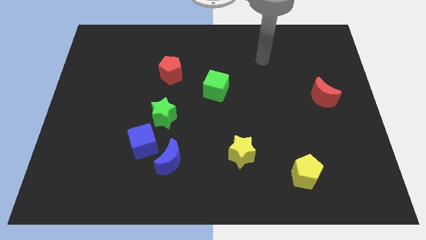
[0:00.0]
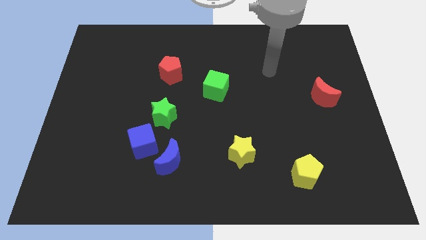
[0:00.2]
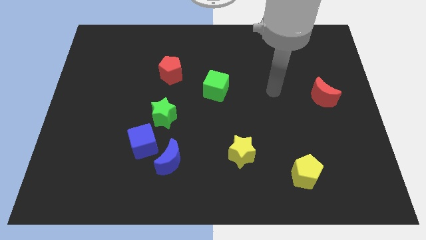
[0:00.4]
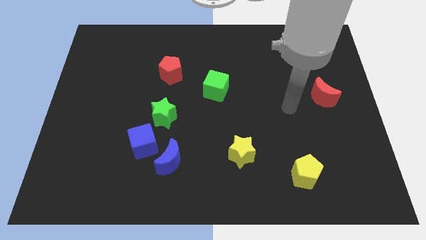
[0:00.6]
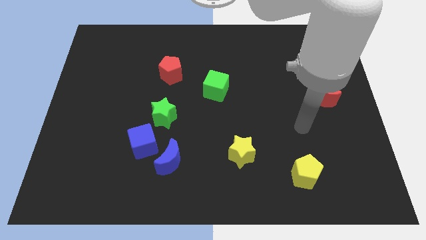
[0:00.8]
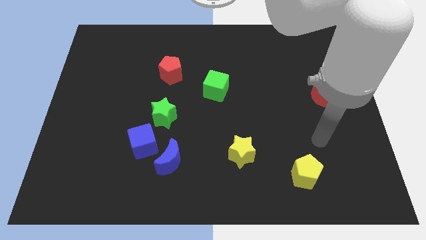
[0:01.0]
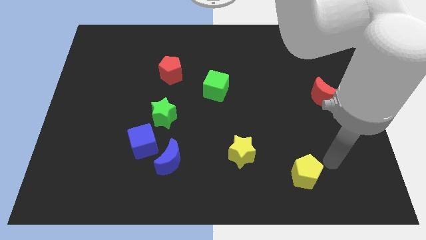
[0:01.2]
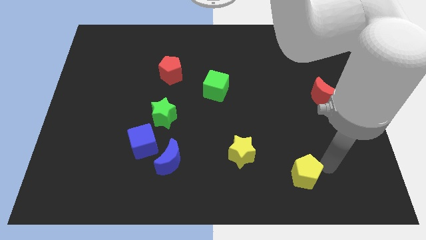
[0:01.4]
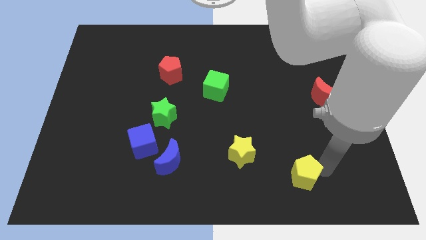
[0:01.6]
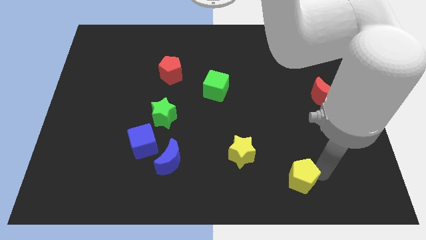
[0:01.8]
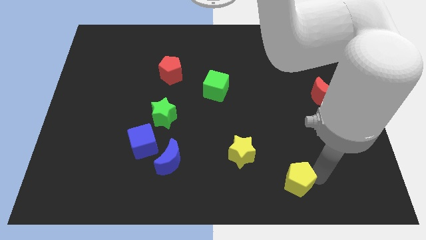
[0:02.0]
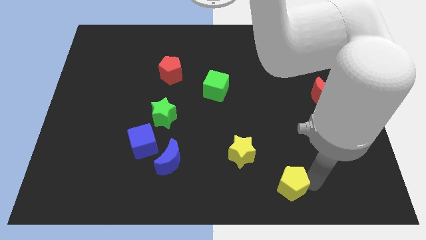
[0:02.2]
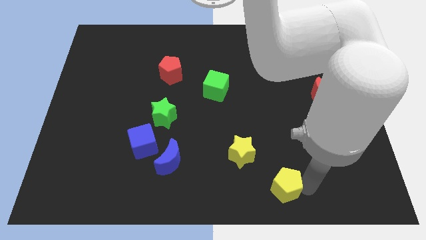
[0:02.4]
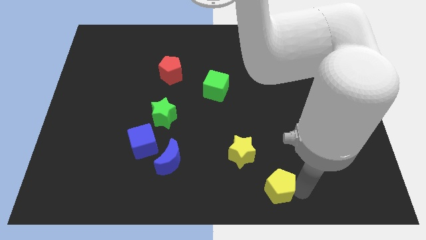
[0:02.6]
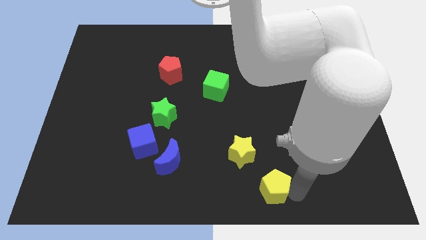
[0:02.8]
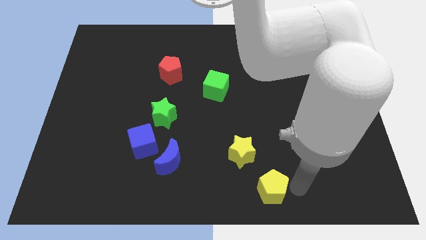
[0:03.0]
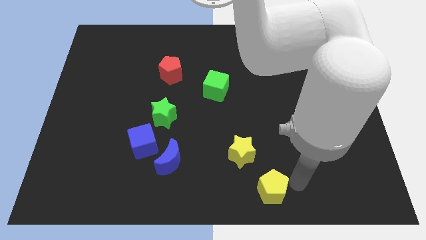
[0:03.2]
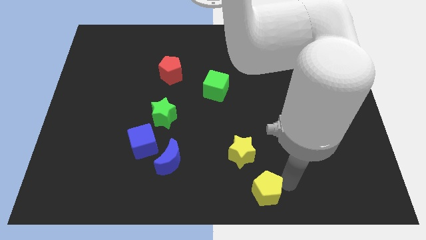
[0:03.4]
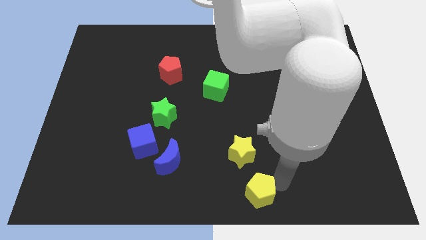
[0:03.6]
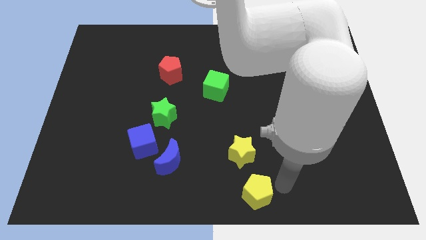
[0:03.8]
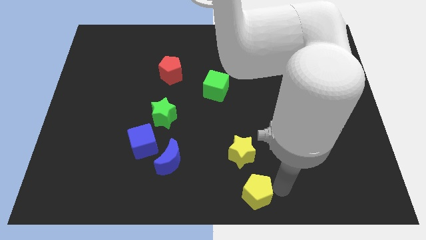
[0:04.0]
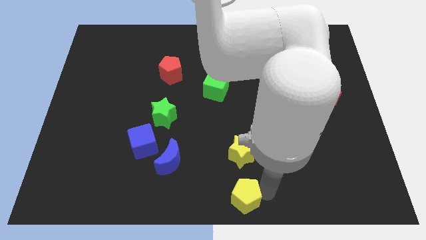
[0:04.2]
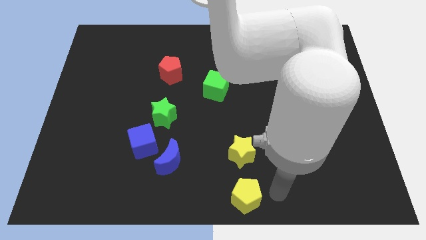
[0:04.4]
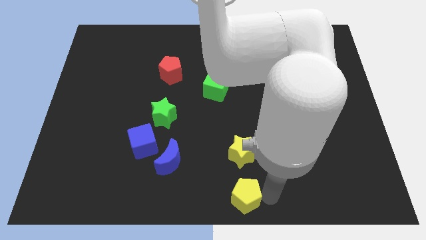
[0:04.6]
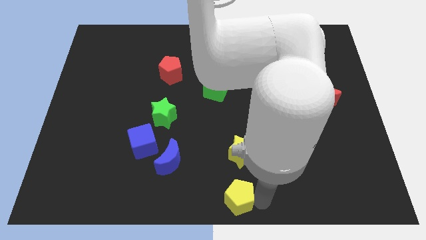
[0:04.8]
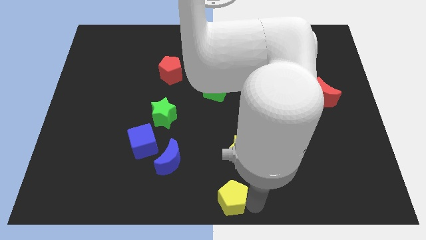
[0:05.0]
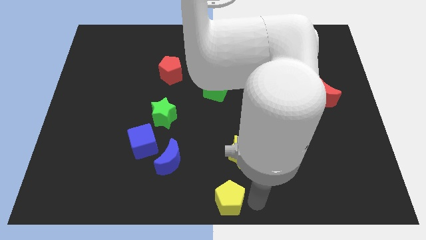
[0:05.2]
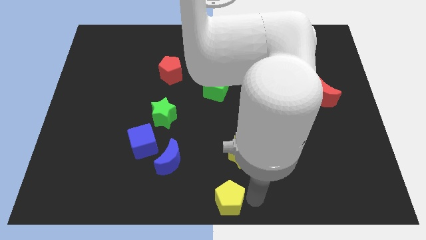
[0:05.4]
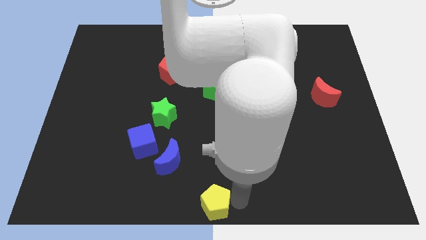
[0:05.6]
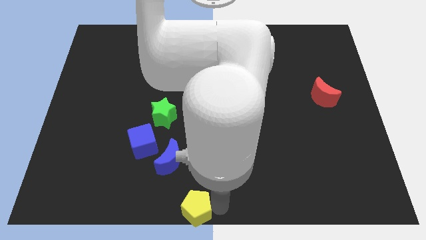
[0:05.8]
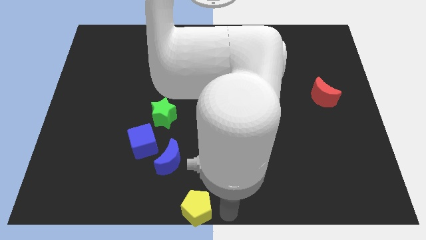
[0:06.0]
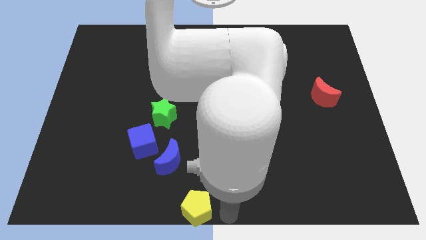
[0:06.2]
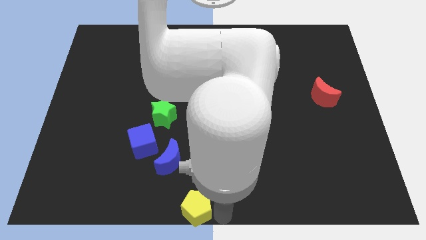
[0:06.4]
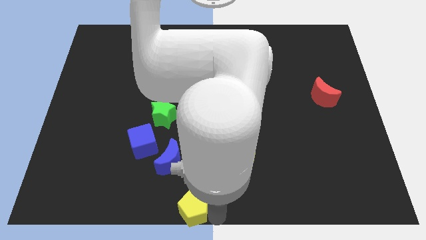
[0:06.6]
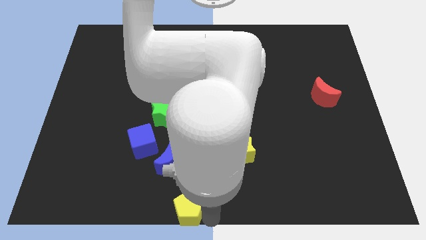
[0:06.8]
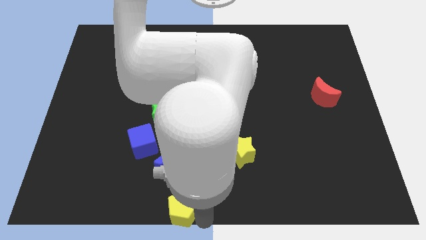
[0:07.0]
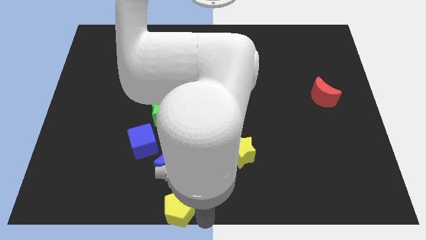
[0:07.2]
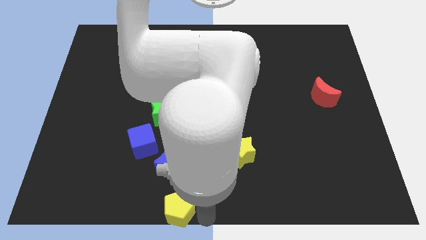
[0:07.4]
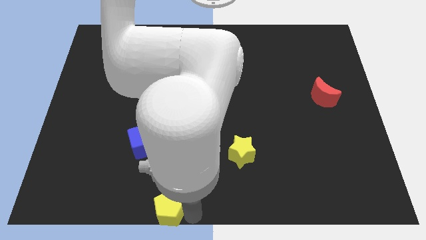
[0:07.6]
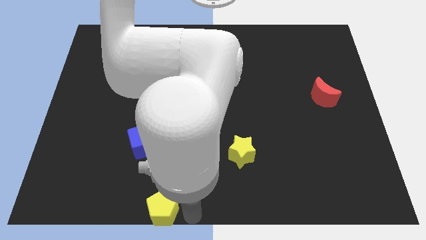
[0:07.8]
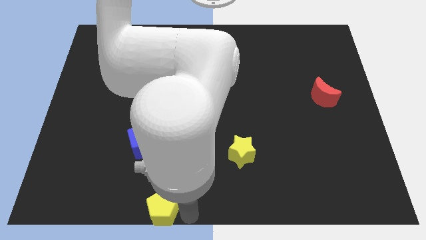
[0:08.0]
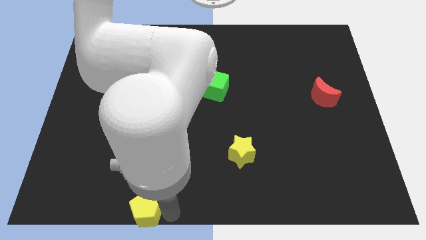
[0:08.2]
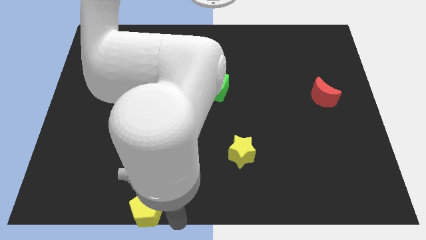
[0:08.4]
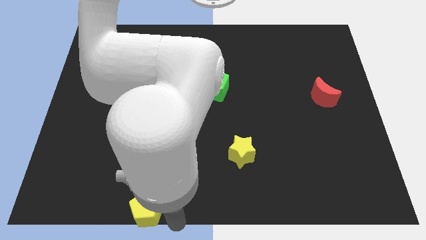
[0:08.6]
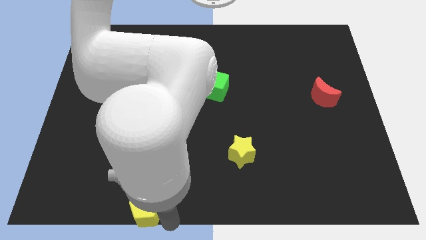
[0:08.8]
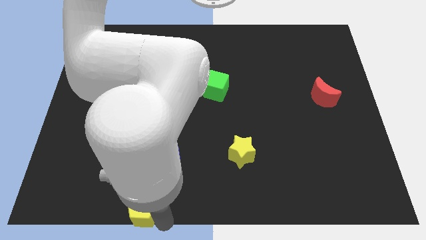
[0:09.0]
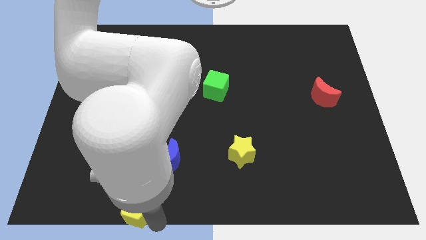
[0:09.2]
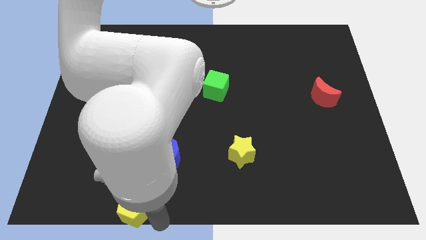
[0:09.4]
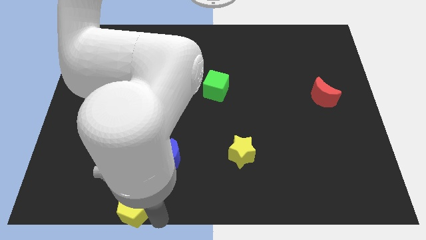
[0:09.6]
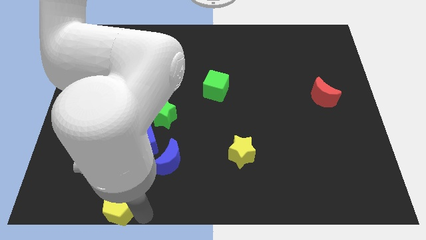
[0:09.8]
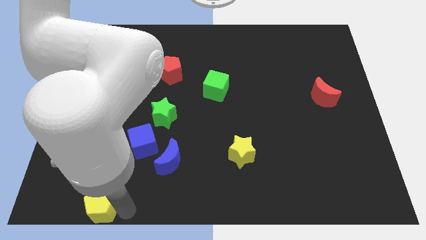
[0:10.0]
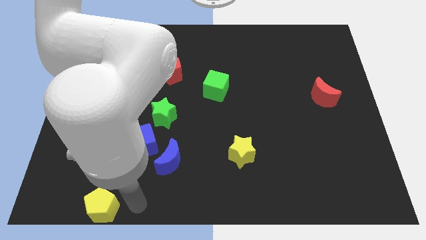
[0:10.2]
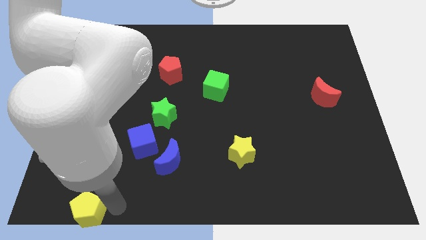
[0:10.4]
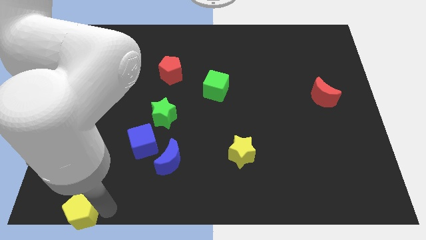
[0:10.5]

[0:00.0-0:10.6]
put the yellow pentagon to the bottom left corner
